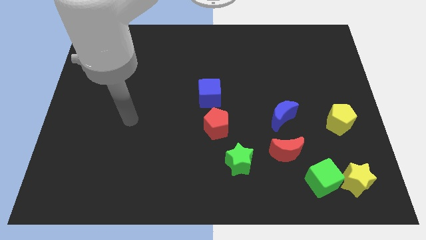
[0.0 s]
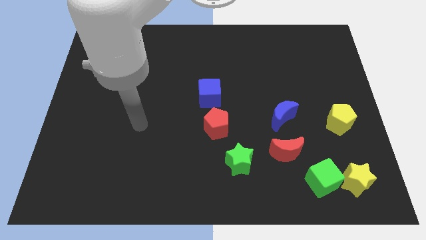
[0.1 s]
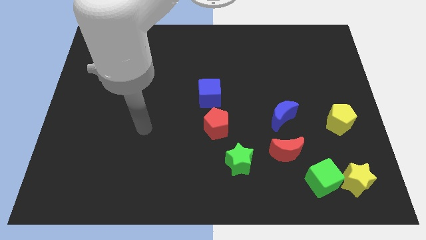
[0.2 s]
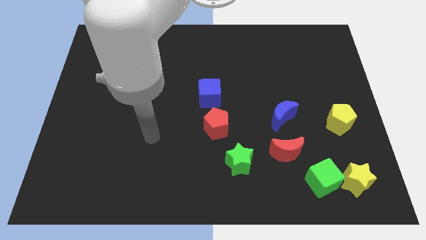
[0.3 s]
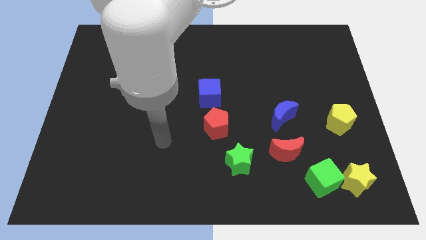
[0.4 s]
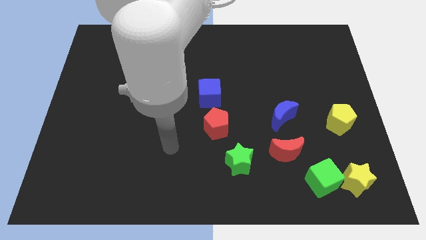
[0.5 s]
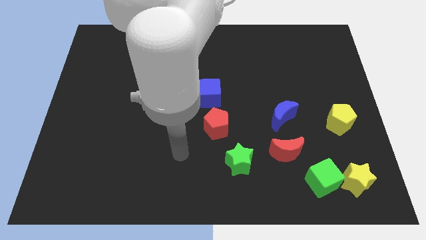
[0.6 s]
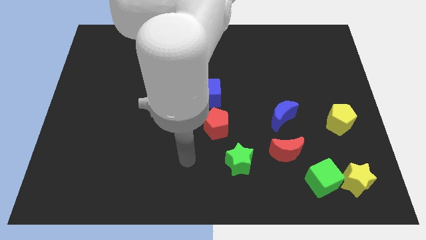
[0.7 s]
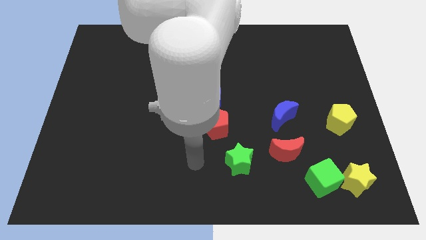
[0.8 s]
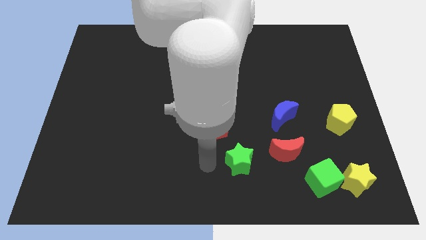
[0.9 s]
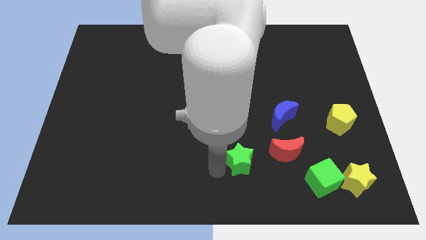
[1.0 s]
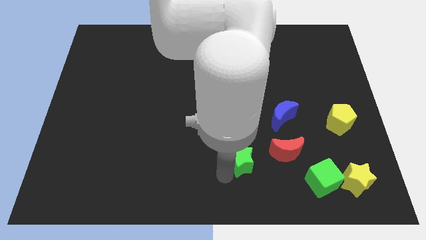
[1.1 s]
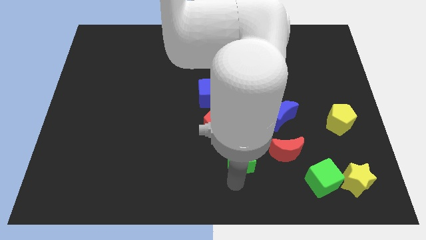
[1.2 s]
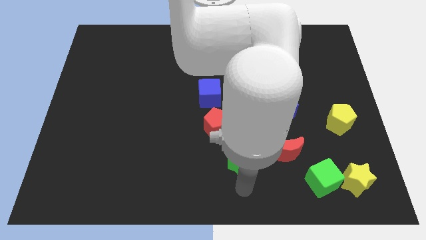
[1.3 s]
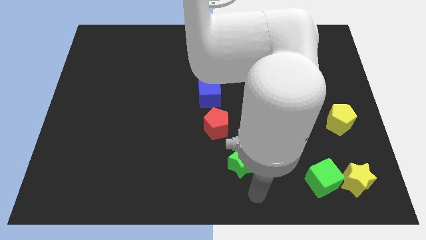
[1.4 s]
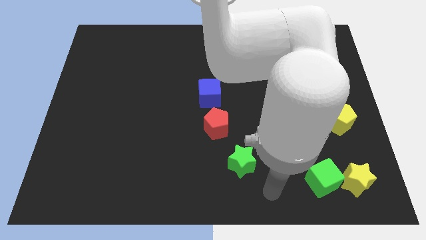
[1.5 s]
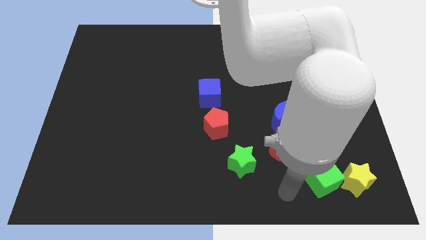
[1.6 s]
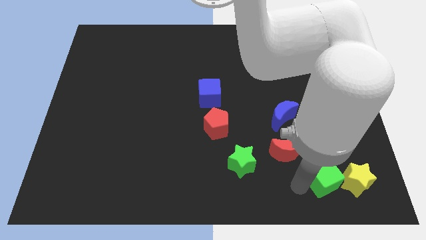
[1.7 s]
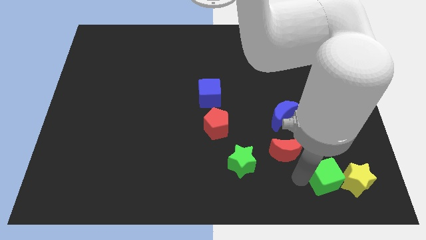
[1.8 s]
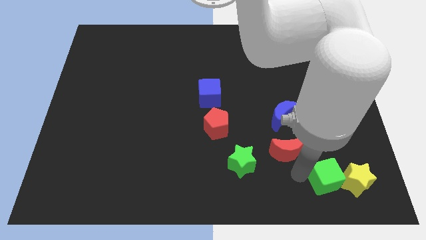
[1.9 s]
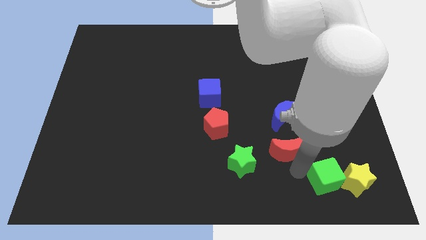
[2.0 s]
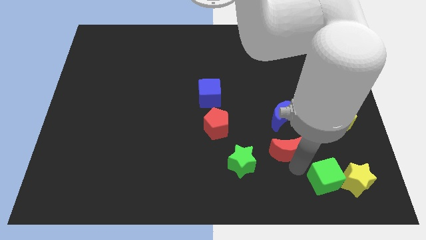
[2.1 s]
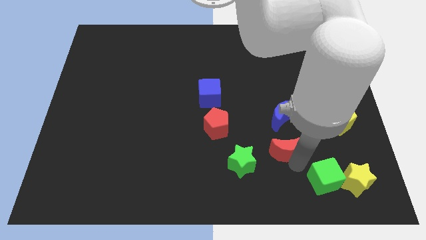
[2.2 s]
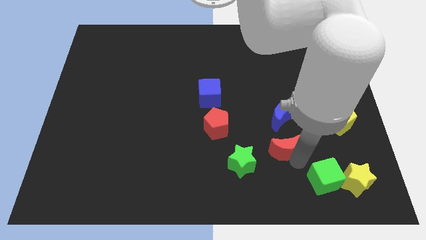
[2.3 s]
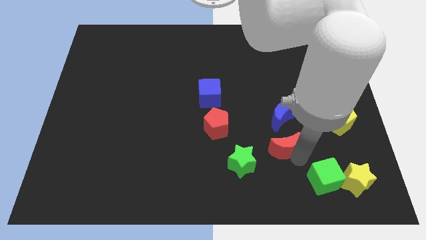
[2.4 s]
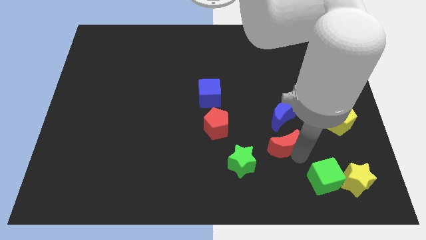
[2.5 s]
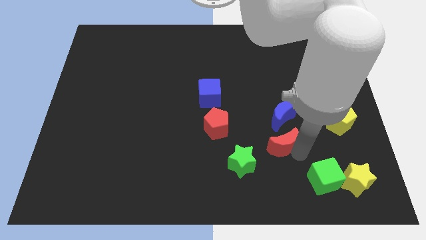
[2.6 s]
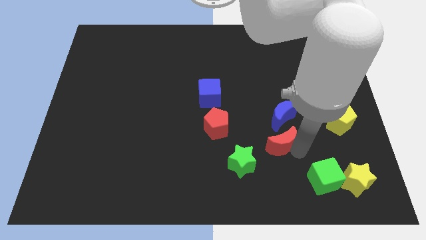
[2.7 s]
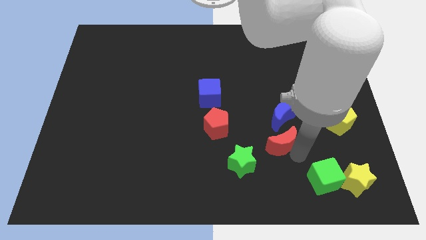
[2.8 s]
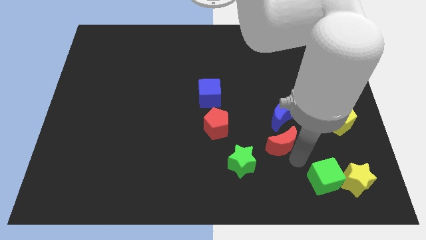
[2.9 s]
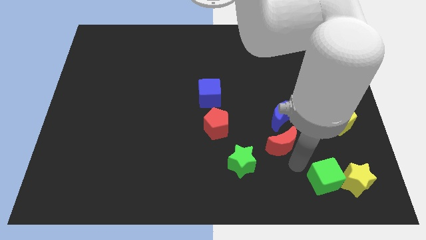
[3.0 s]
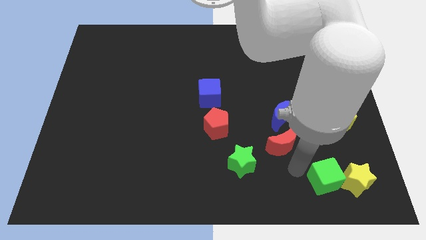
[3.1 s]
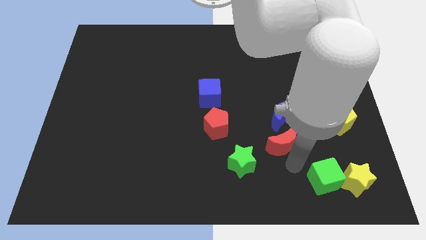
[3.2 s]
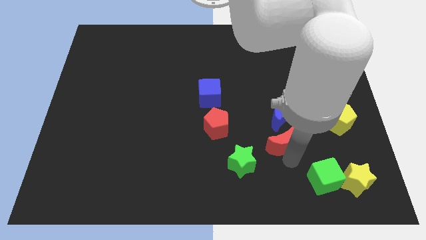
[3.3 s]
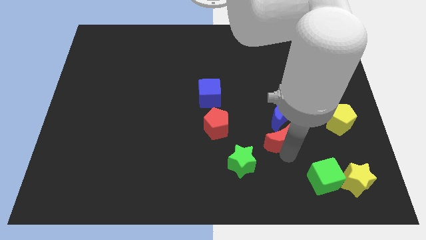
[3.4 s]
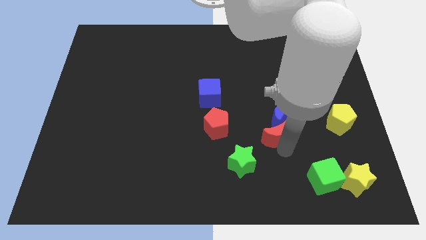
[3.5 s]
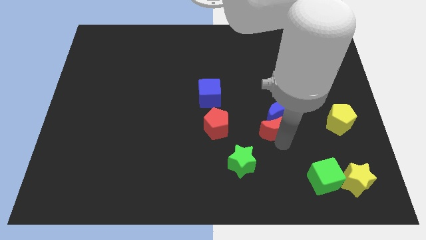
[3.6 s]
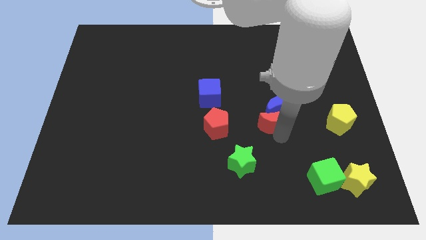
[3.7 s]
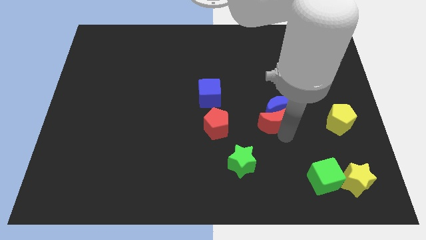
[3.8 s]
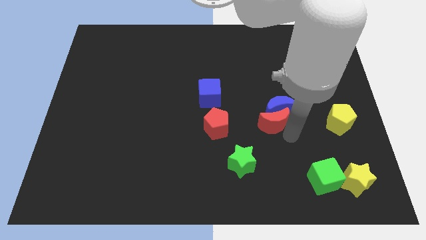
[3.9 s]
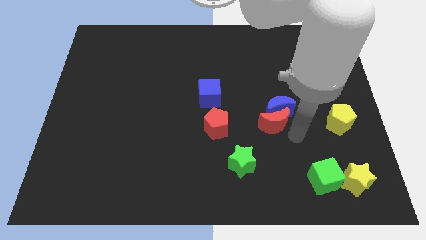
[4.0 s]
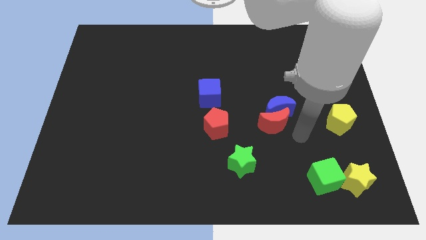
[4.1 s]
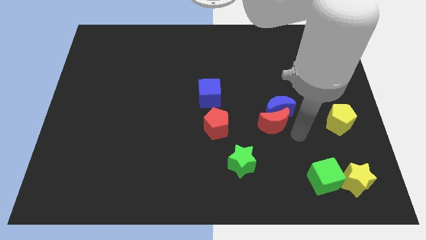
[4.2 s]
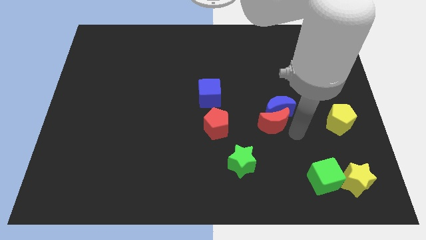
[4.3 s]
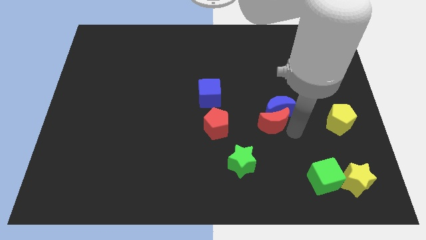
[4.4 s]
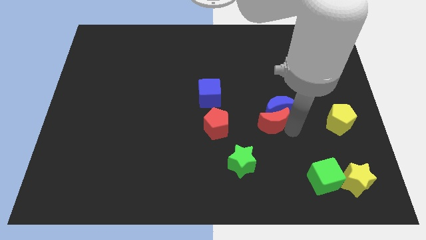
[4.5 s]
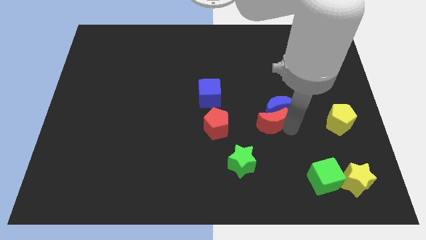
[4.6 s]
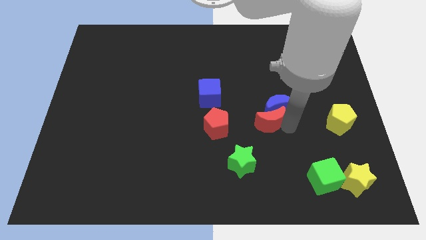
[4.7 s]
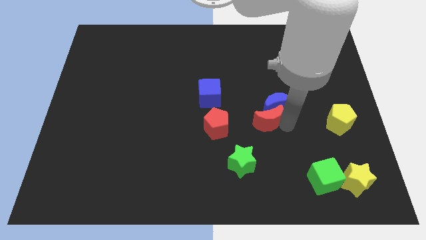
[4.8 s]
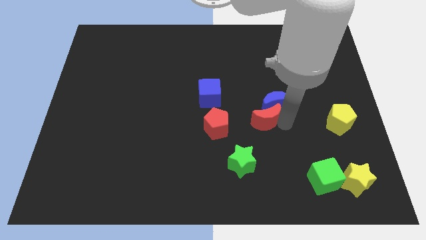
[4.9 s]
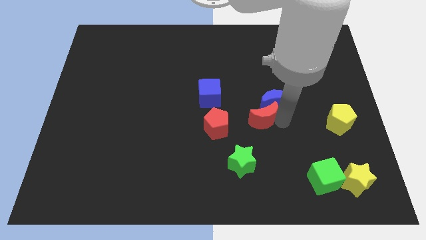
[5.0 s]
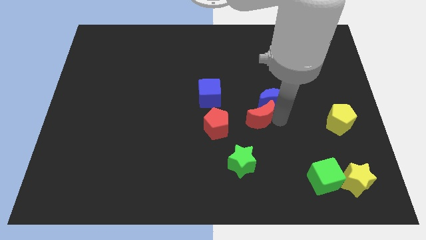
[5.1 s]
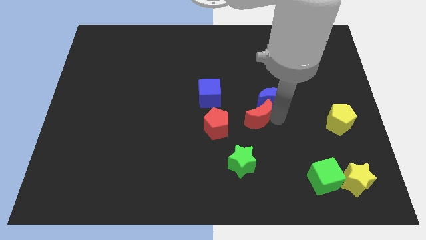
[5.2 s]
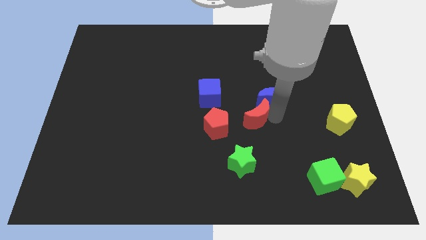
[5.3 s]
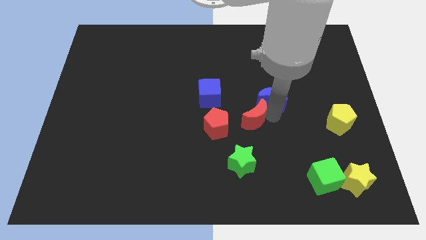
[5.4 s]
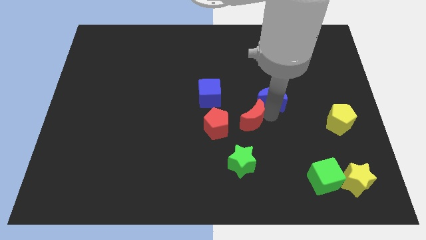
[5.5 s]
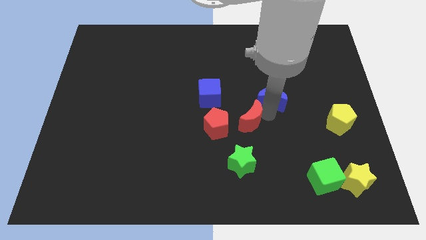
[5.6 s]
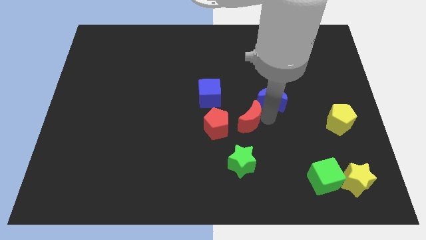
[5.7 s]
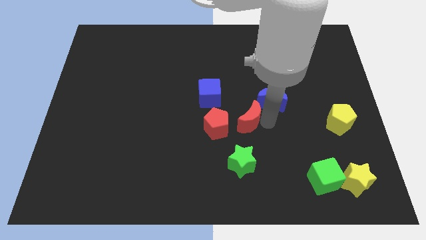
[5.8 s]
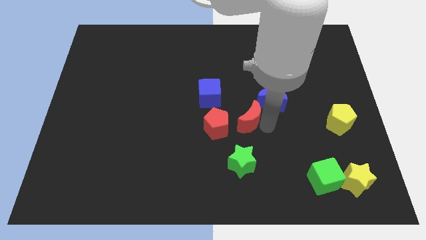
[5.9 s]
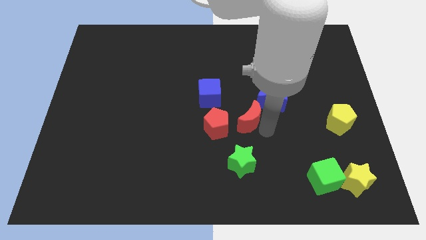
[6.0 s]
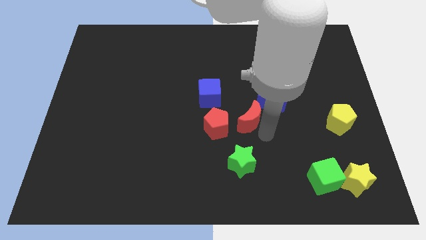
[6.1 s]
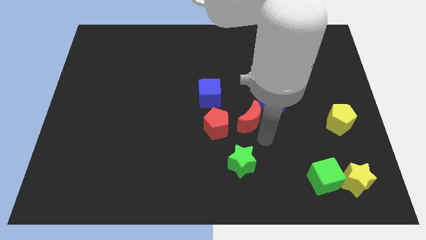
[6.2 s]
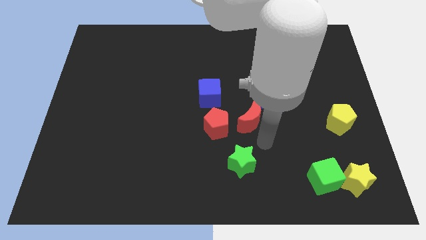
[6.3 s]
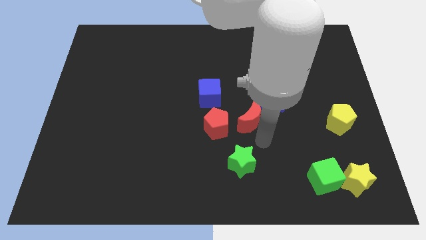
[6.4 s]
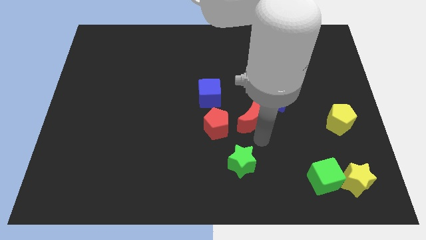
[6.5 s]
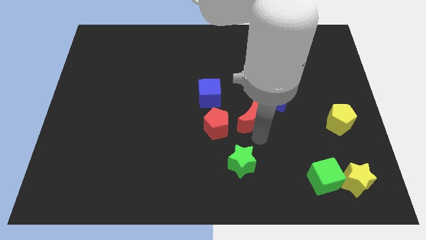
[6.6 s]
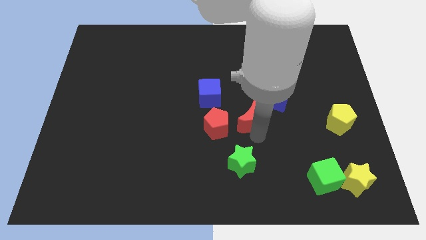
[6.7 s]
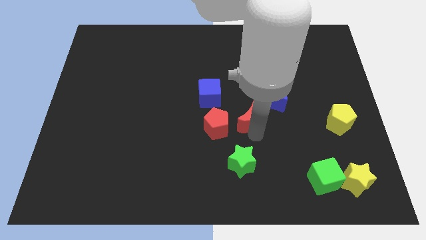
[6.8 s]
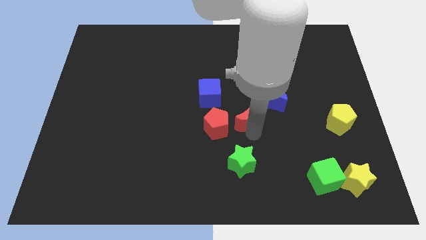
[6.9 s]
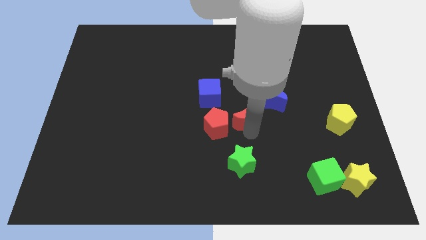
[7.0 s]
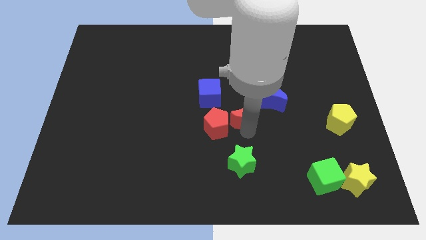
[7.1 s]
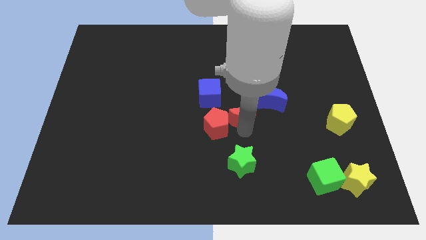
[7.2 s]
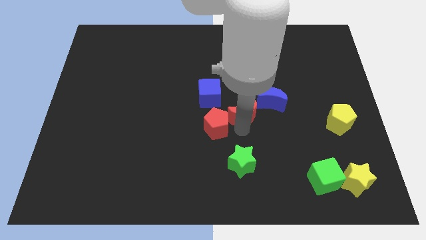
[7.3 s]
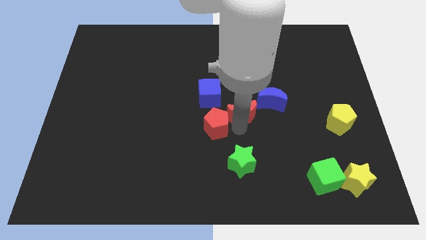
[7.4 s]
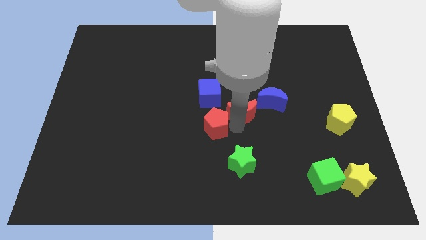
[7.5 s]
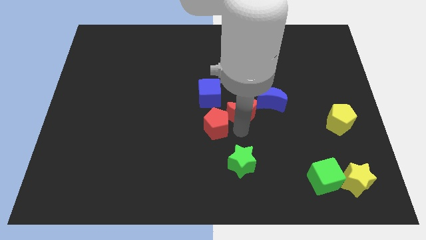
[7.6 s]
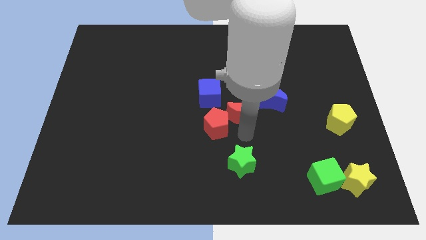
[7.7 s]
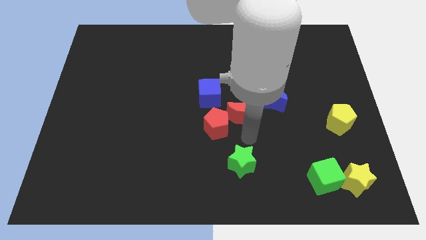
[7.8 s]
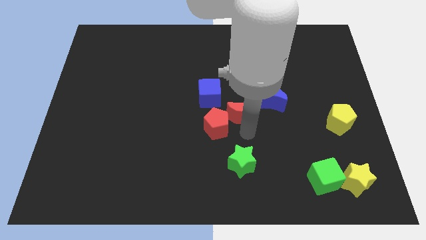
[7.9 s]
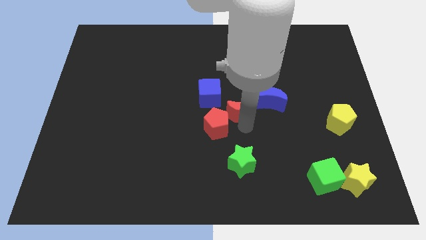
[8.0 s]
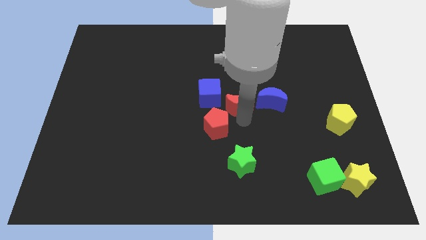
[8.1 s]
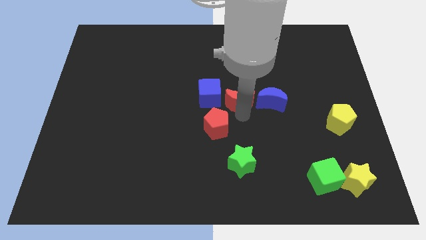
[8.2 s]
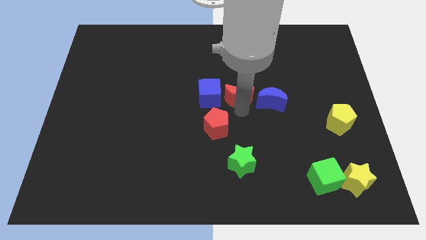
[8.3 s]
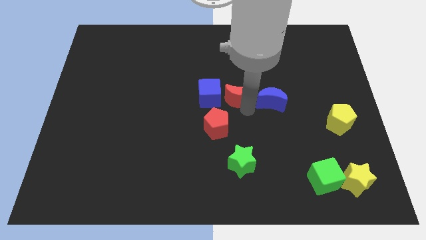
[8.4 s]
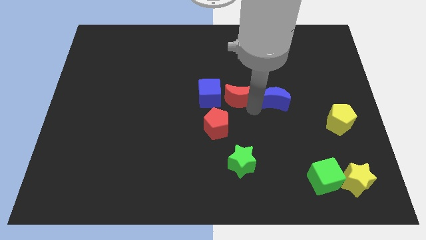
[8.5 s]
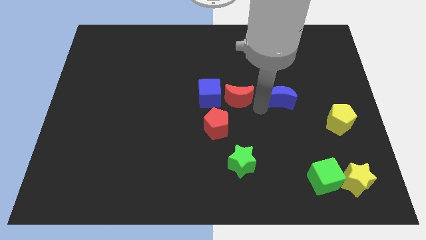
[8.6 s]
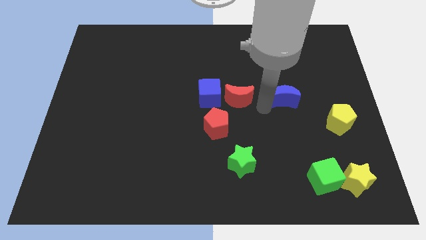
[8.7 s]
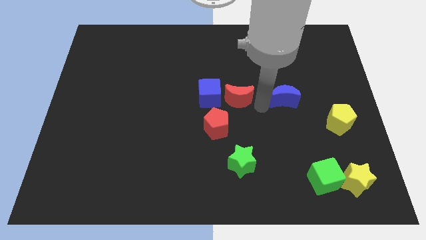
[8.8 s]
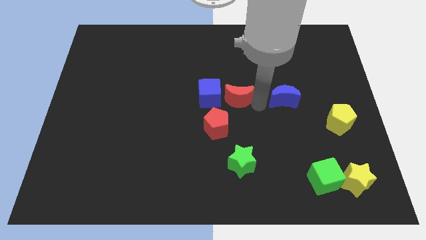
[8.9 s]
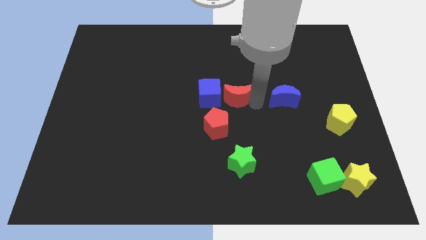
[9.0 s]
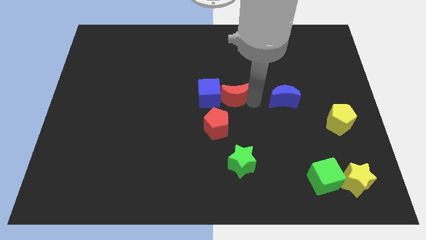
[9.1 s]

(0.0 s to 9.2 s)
push the red moon to the top of the red pentagon
